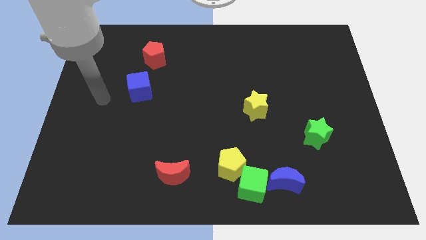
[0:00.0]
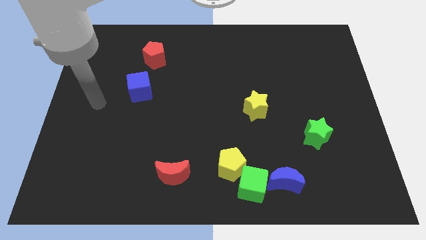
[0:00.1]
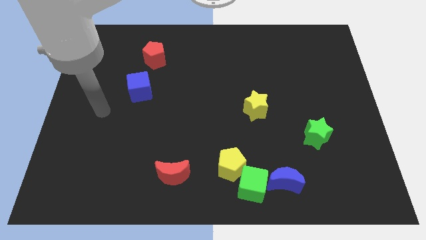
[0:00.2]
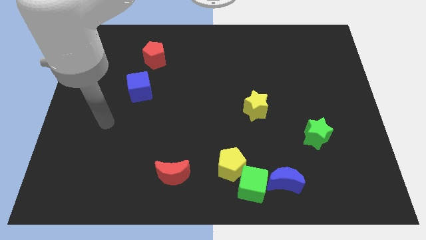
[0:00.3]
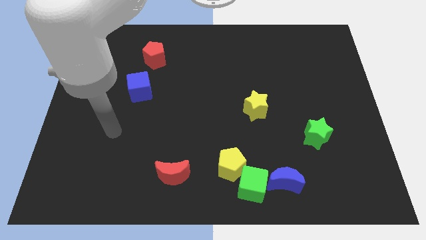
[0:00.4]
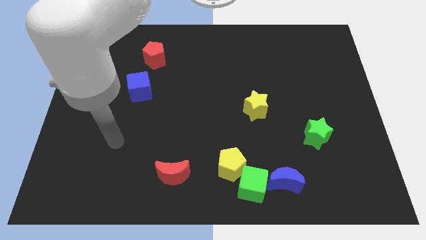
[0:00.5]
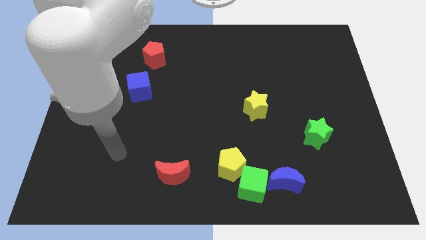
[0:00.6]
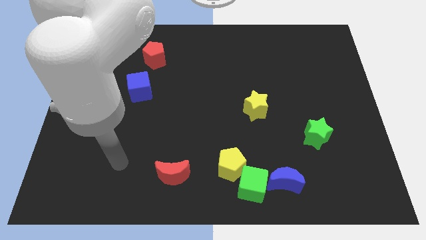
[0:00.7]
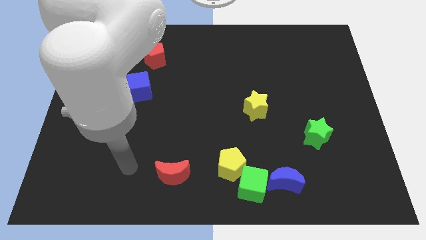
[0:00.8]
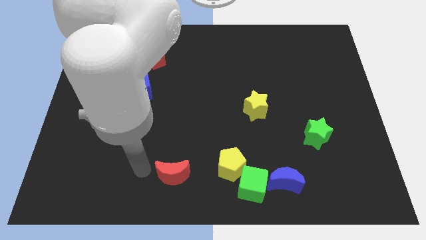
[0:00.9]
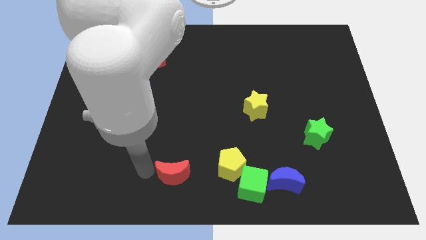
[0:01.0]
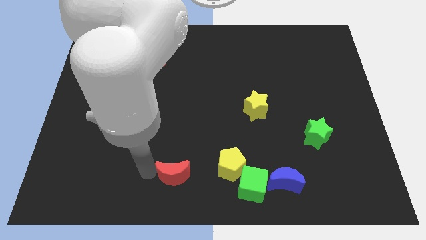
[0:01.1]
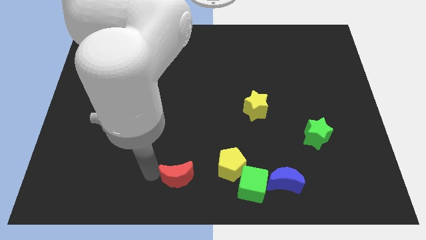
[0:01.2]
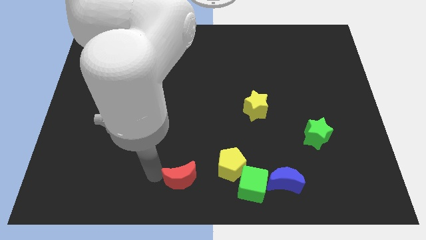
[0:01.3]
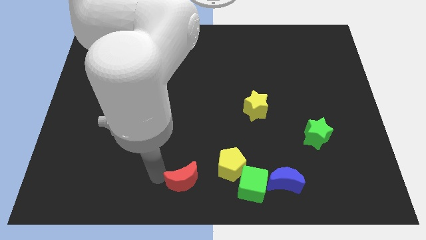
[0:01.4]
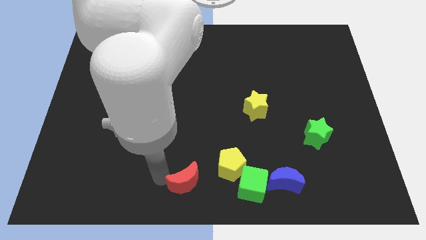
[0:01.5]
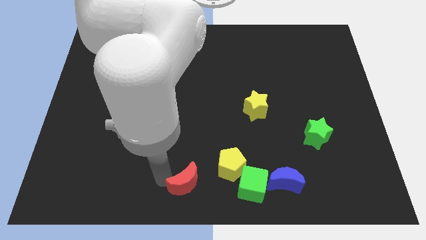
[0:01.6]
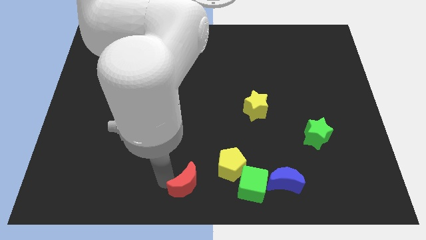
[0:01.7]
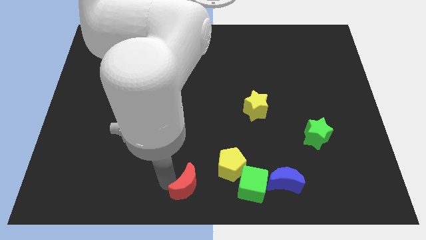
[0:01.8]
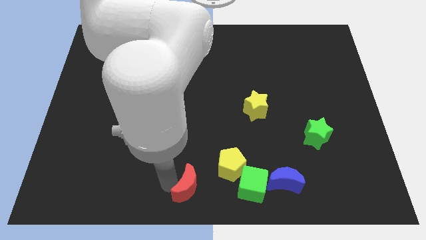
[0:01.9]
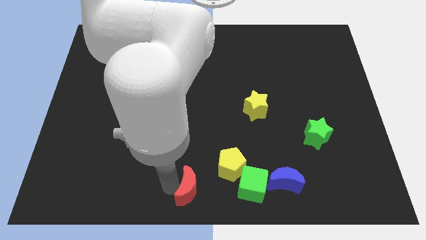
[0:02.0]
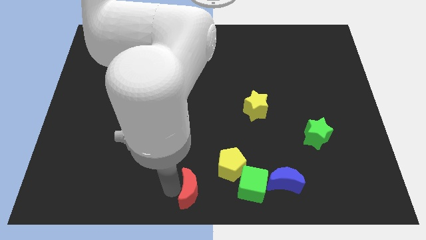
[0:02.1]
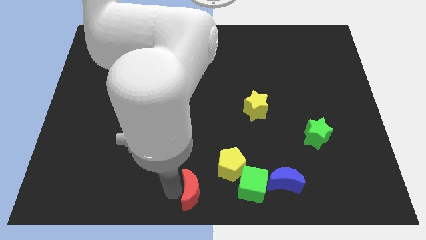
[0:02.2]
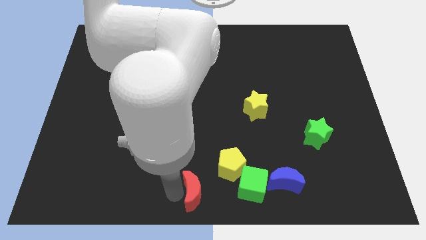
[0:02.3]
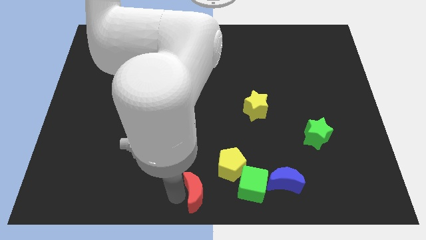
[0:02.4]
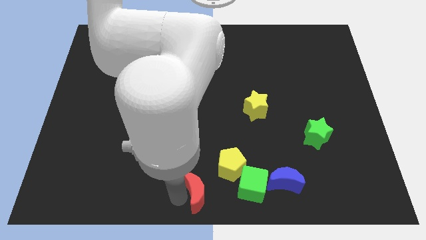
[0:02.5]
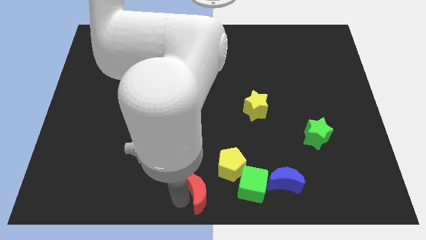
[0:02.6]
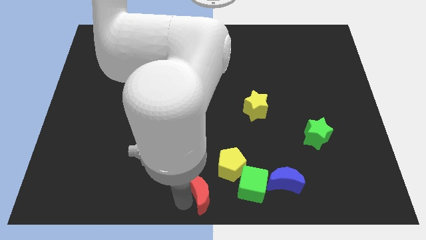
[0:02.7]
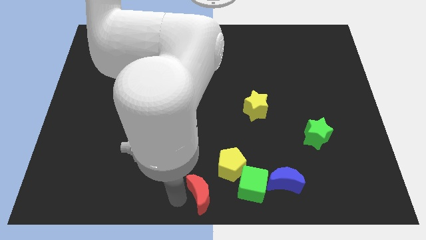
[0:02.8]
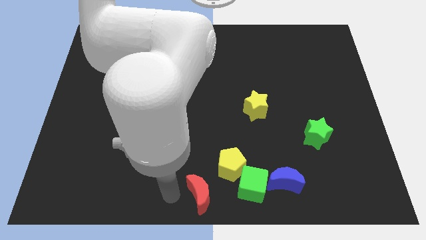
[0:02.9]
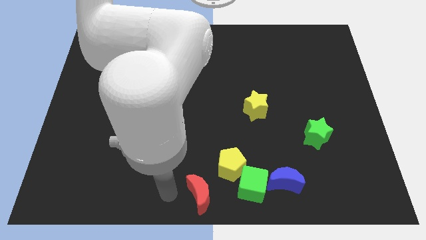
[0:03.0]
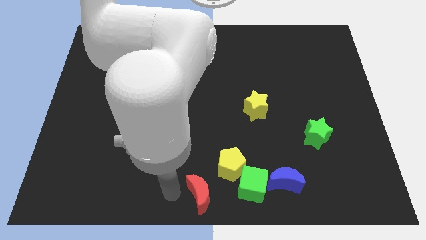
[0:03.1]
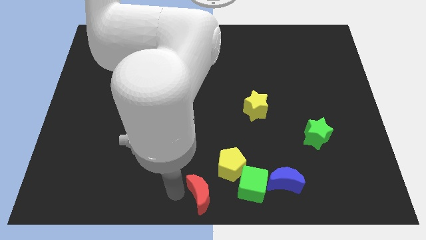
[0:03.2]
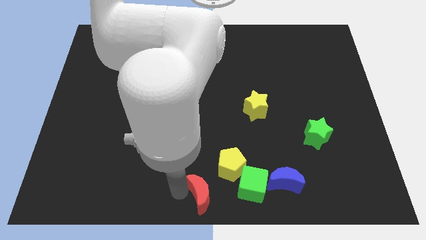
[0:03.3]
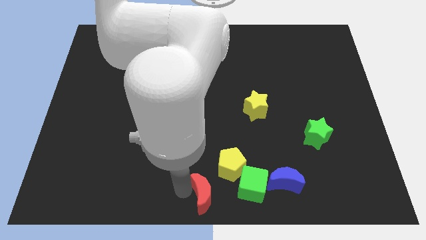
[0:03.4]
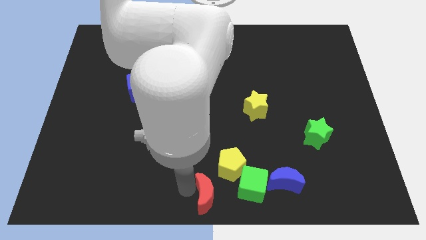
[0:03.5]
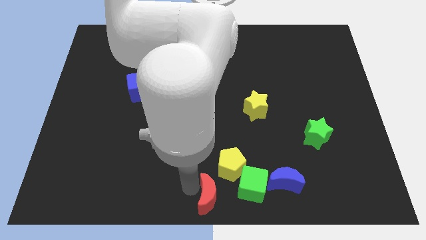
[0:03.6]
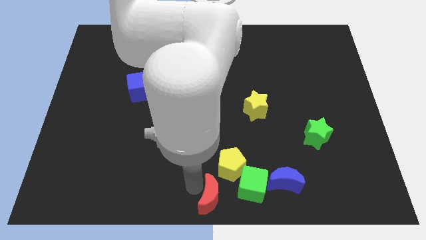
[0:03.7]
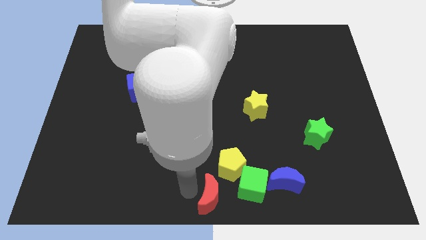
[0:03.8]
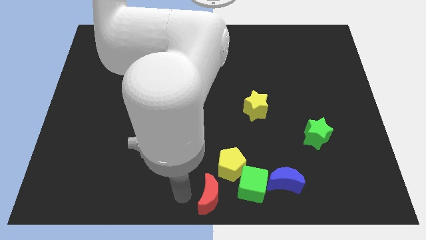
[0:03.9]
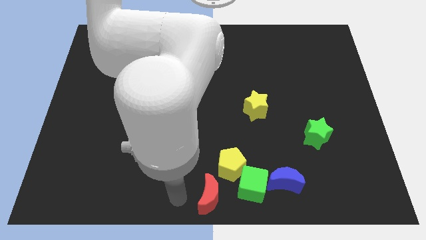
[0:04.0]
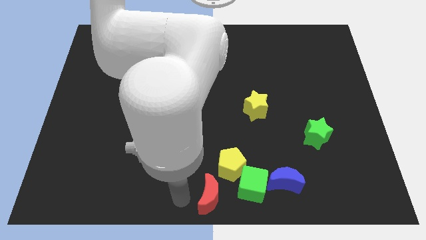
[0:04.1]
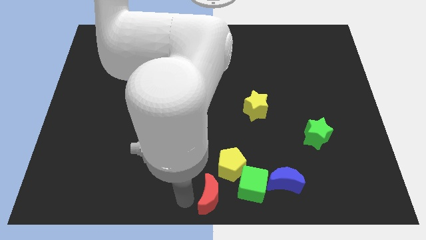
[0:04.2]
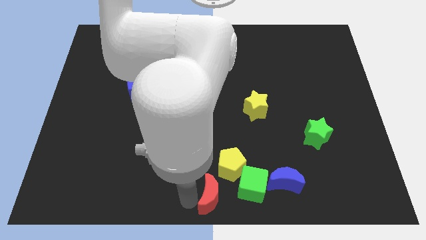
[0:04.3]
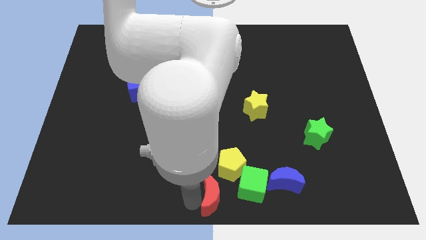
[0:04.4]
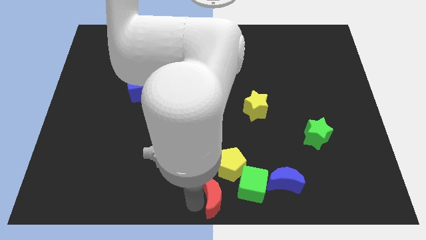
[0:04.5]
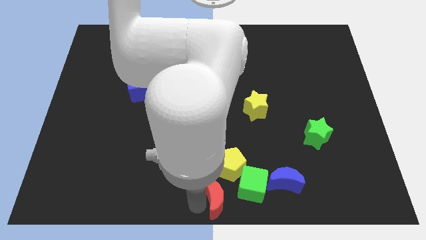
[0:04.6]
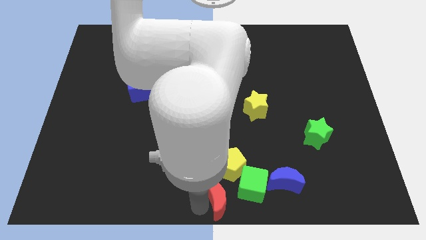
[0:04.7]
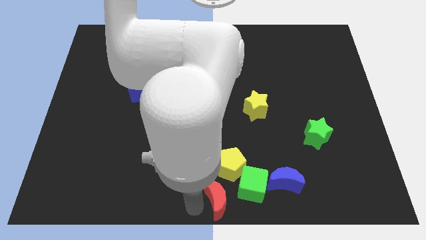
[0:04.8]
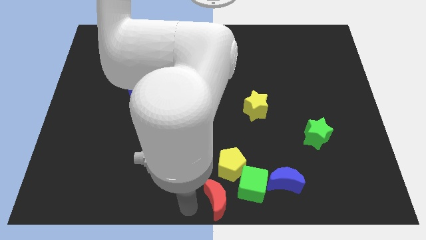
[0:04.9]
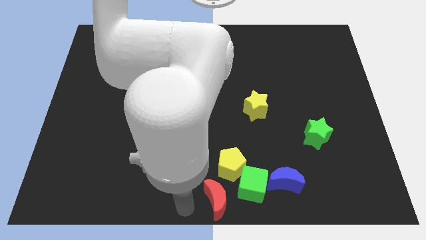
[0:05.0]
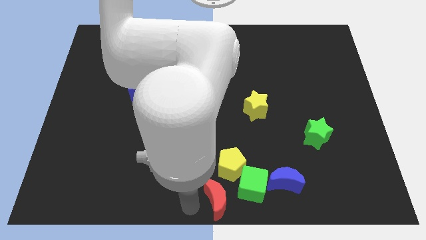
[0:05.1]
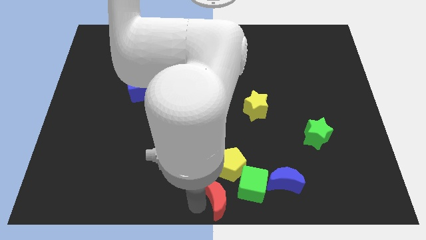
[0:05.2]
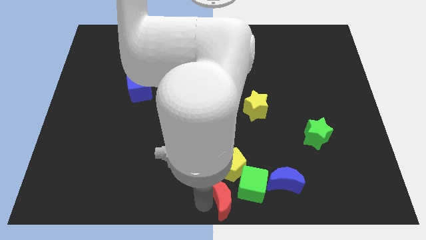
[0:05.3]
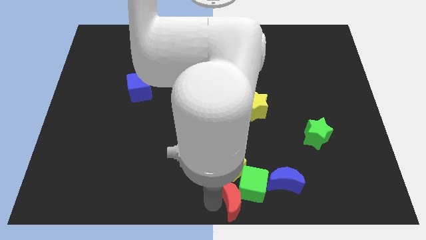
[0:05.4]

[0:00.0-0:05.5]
slide the red moon towards the green cube

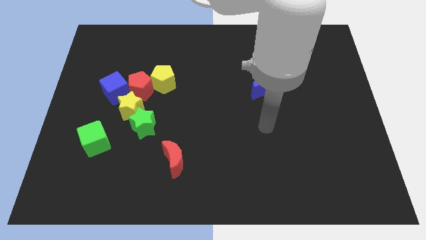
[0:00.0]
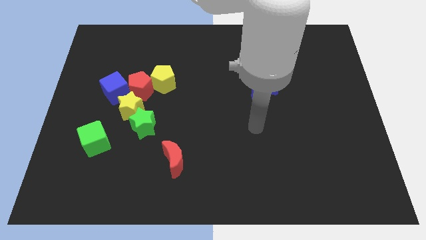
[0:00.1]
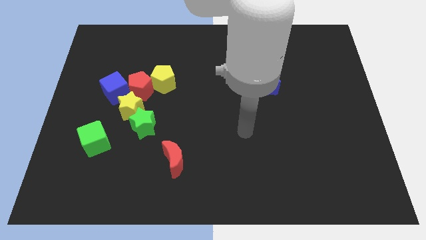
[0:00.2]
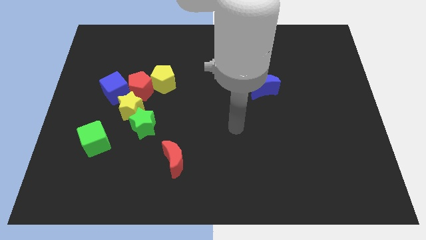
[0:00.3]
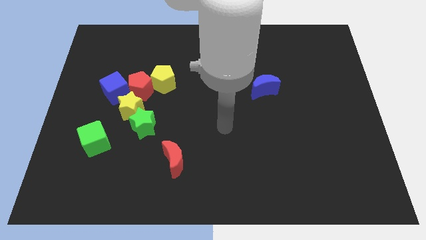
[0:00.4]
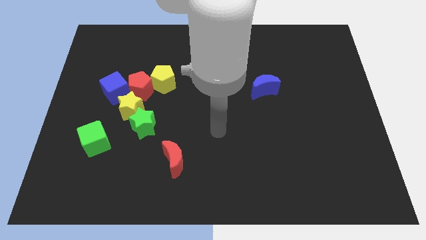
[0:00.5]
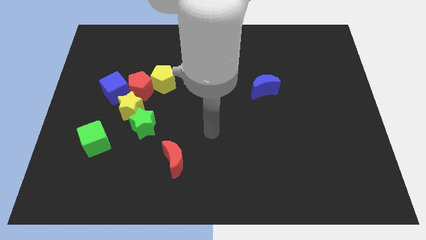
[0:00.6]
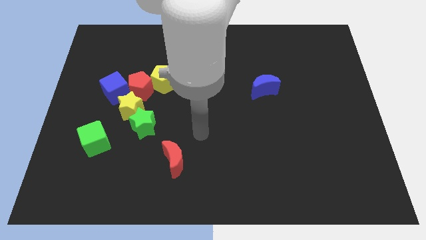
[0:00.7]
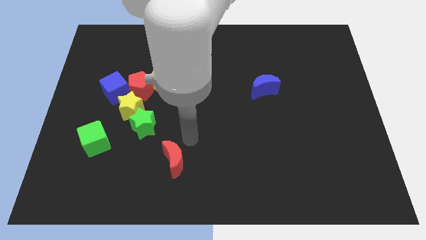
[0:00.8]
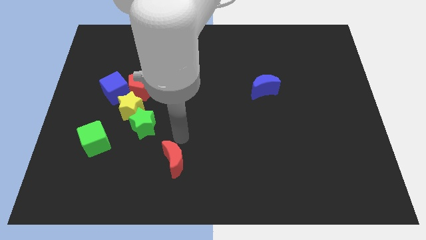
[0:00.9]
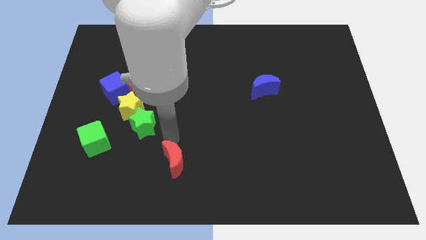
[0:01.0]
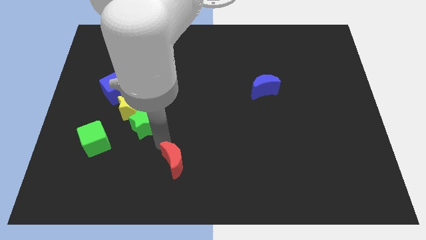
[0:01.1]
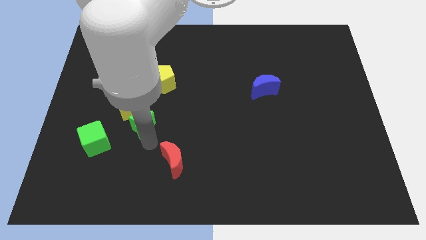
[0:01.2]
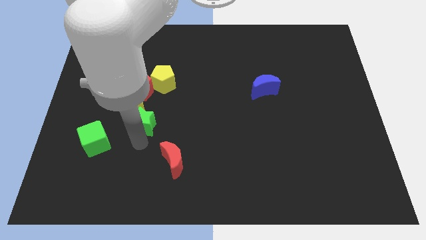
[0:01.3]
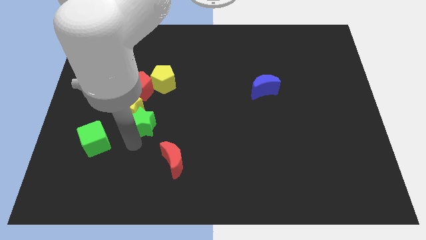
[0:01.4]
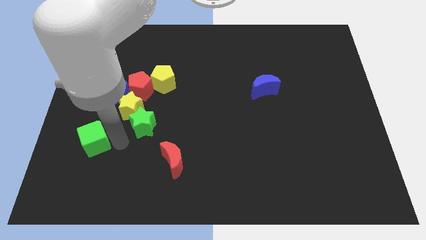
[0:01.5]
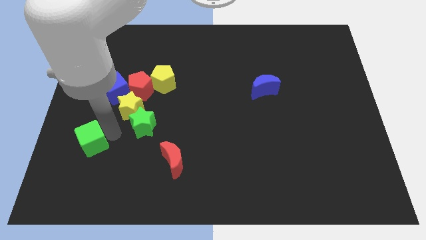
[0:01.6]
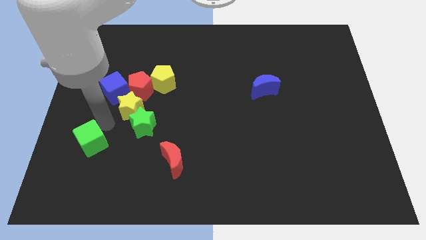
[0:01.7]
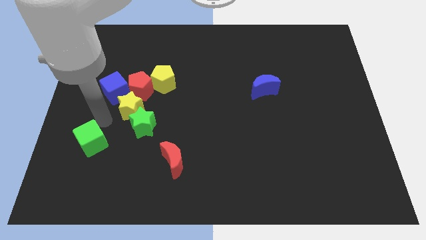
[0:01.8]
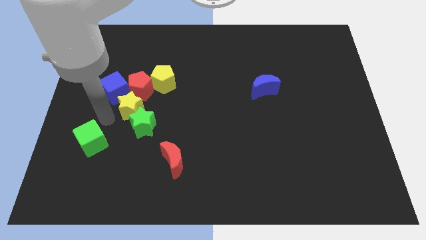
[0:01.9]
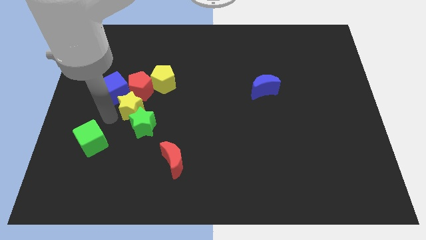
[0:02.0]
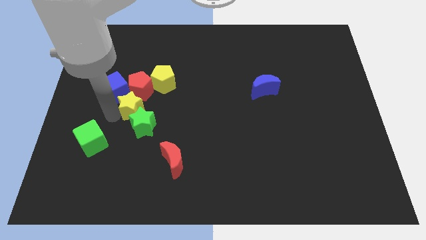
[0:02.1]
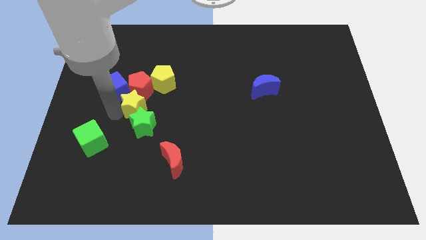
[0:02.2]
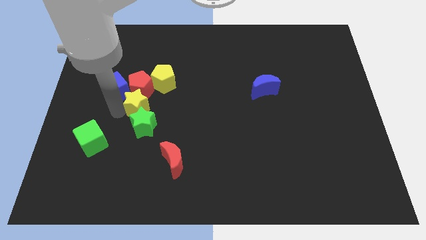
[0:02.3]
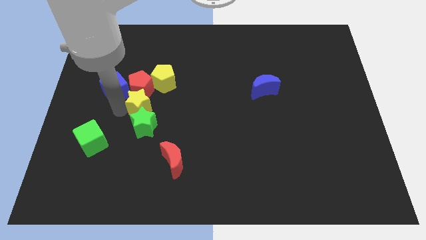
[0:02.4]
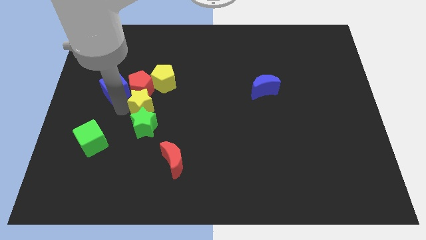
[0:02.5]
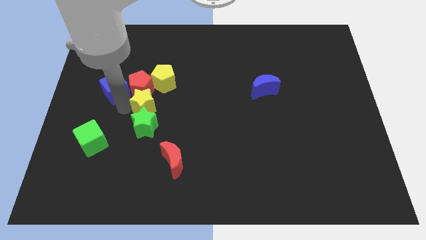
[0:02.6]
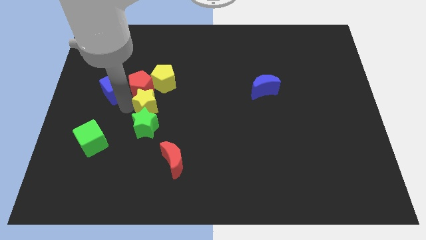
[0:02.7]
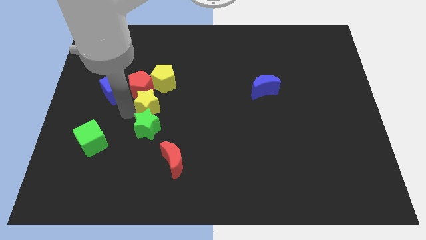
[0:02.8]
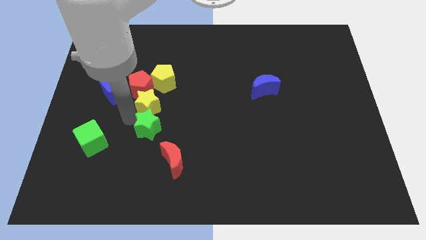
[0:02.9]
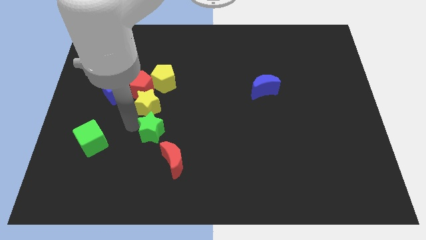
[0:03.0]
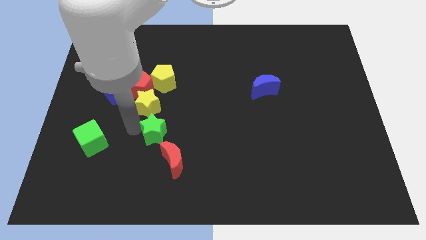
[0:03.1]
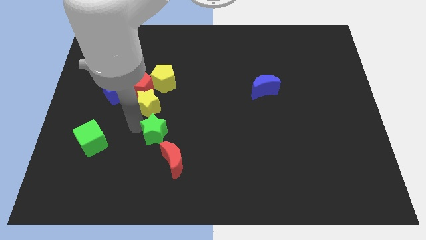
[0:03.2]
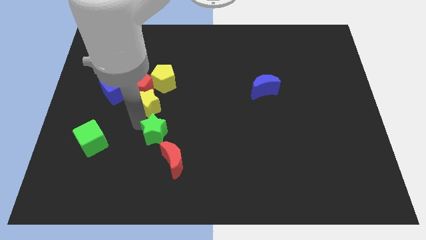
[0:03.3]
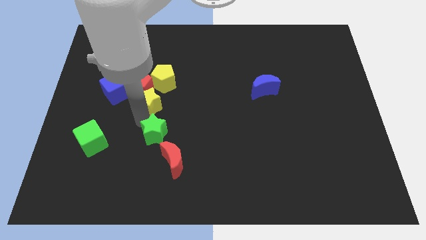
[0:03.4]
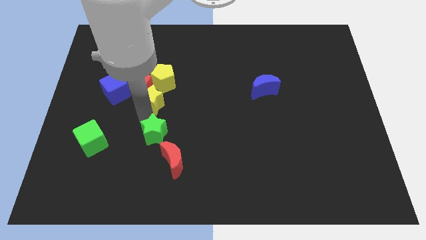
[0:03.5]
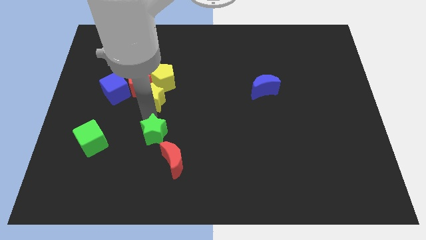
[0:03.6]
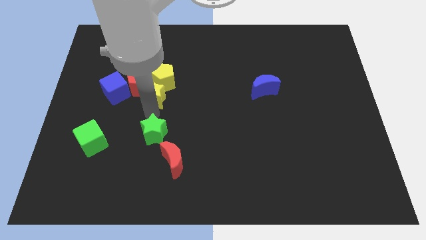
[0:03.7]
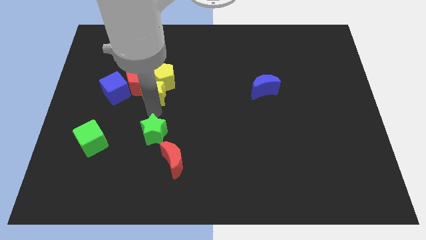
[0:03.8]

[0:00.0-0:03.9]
put the yellow star towards the yellow pentagon
